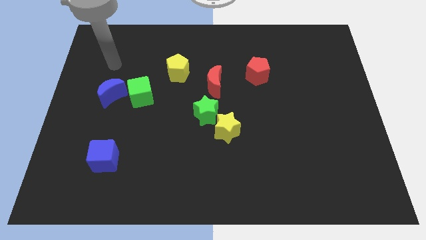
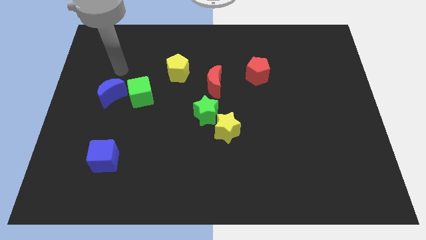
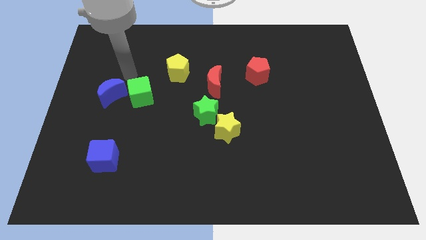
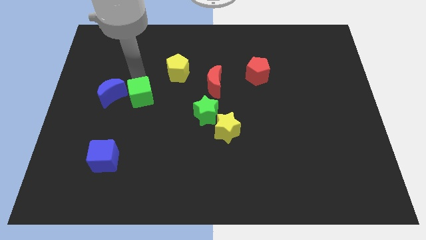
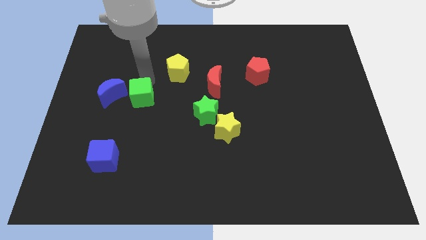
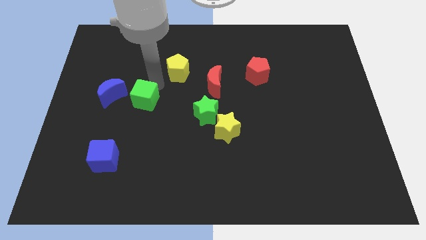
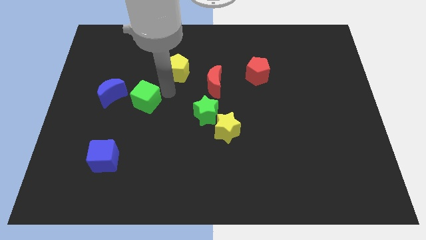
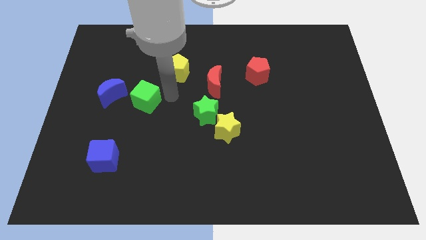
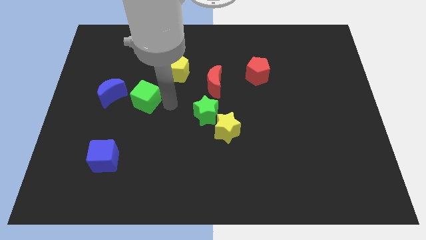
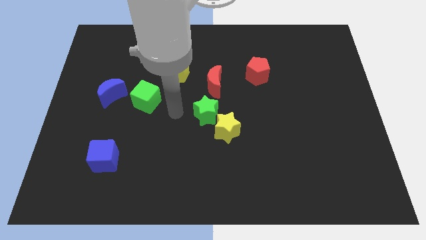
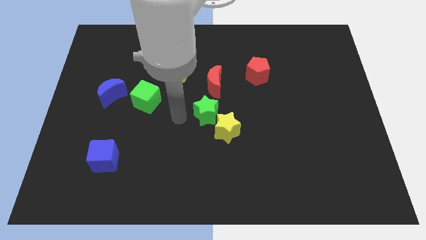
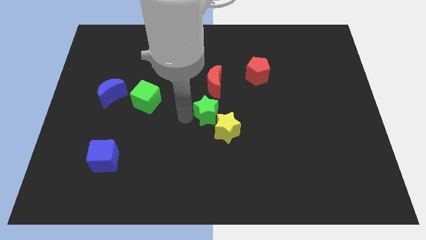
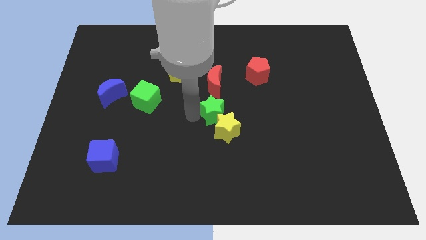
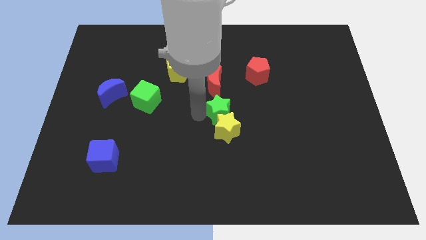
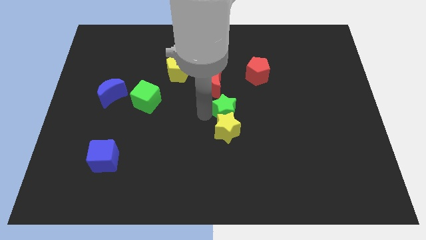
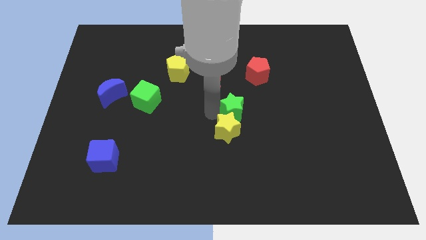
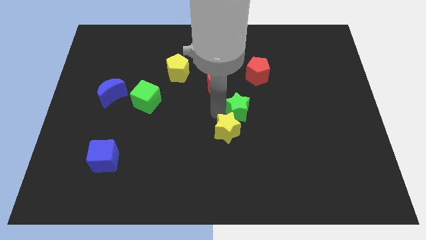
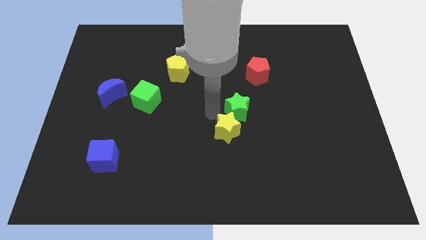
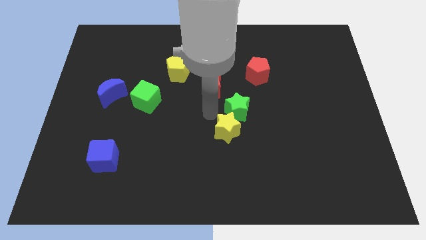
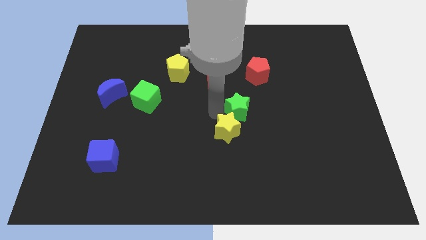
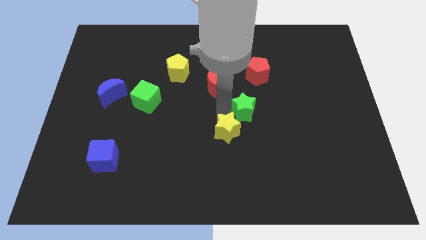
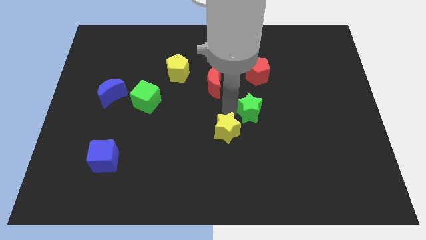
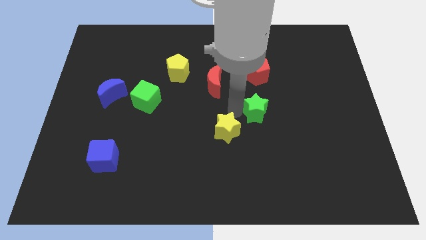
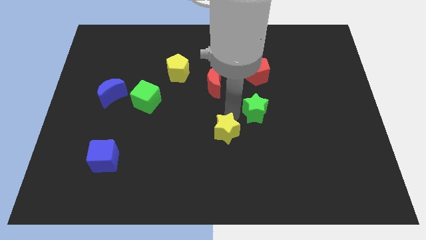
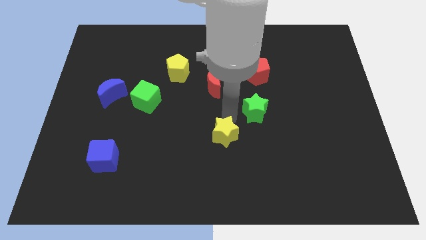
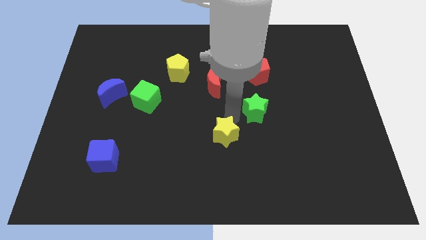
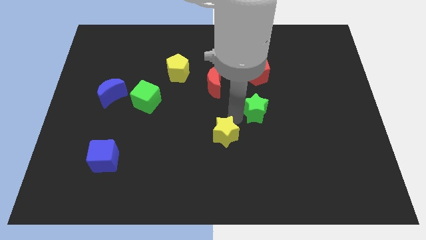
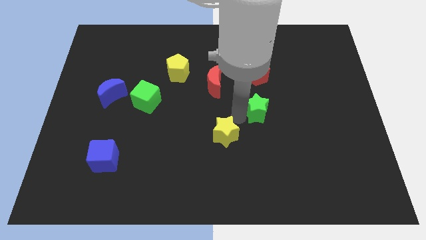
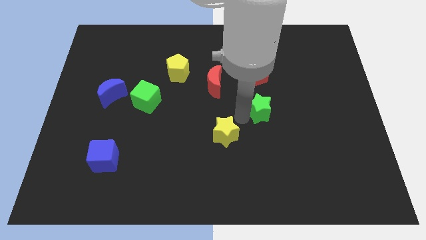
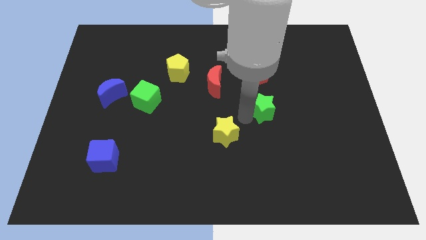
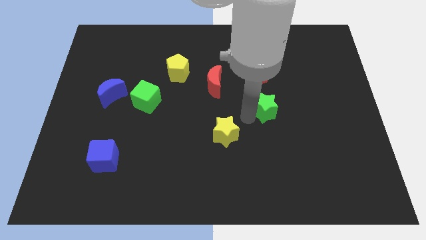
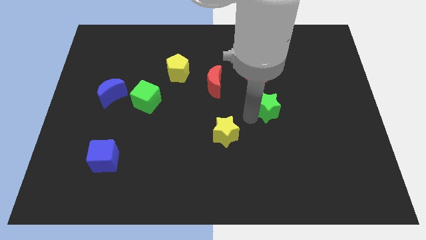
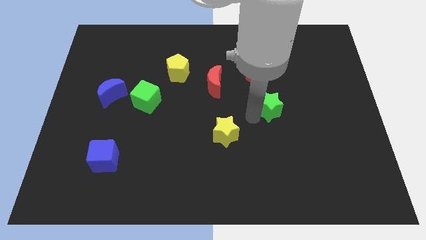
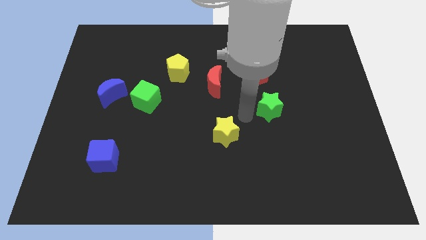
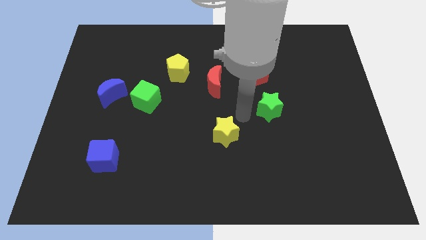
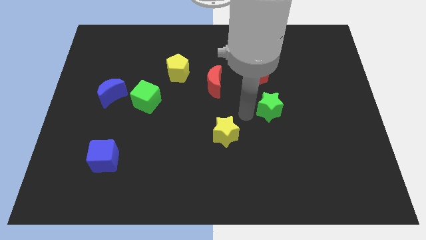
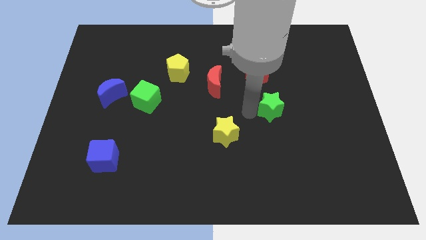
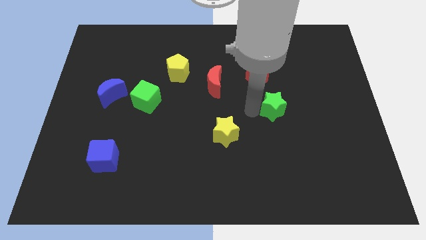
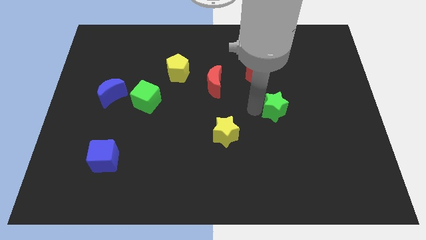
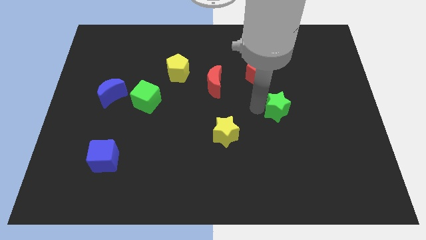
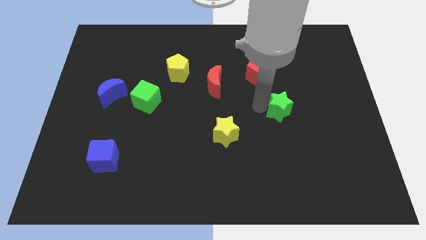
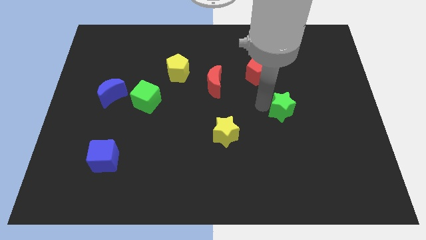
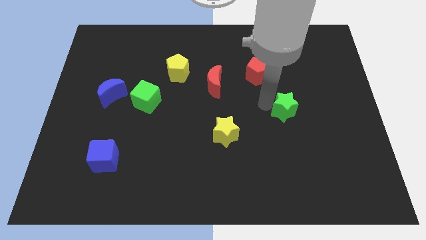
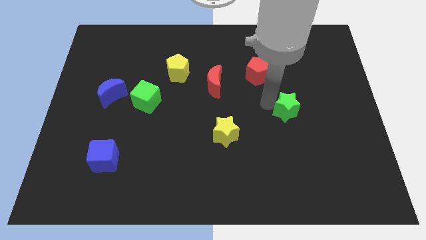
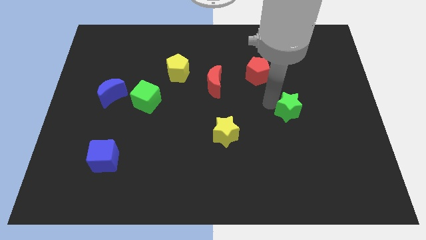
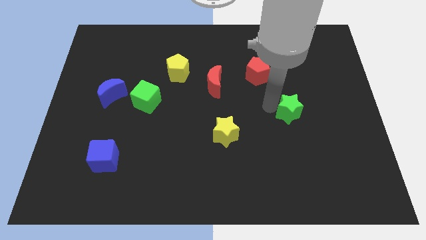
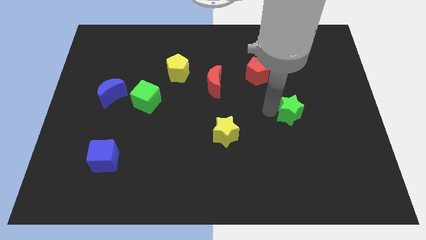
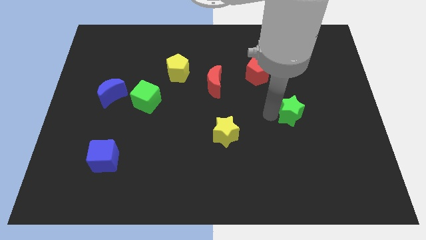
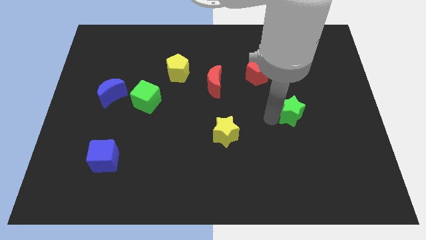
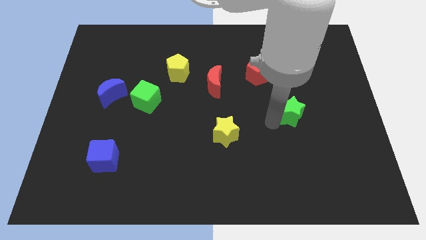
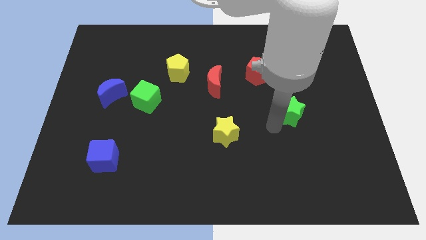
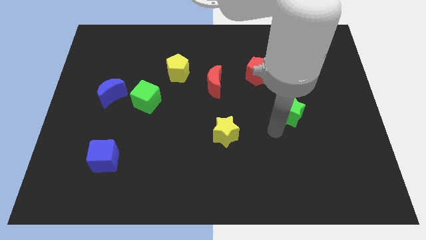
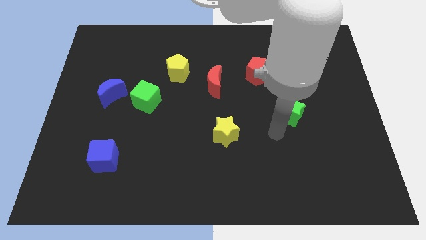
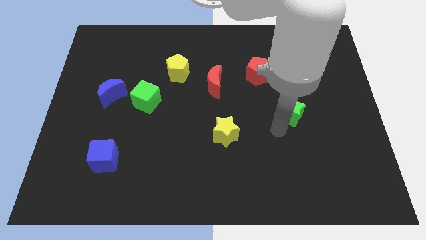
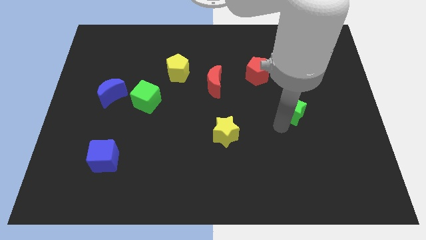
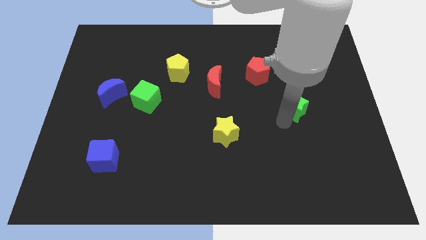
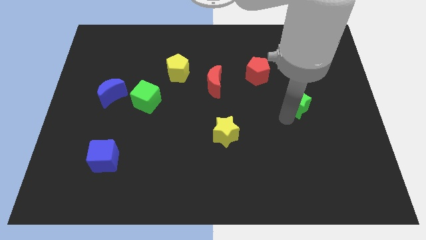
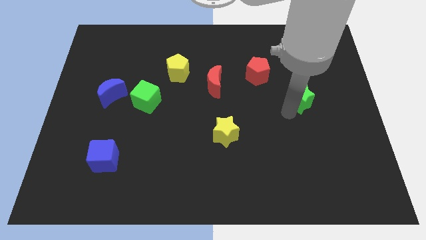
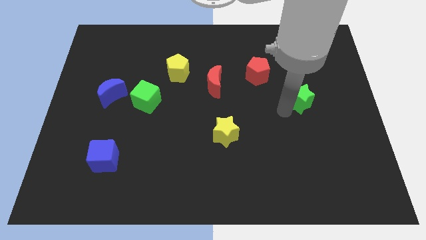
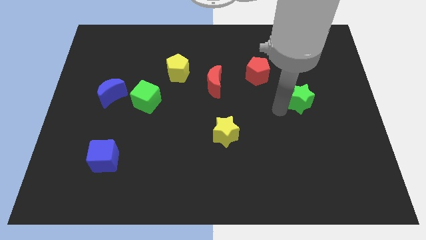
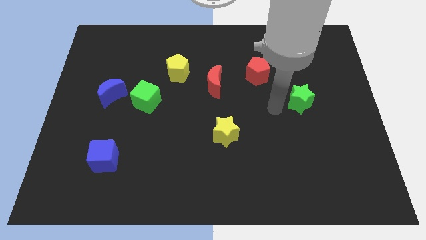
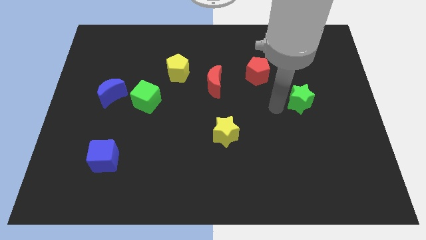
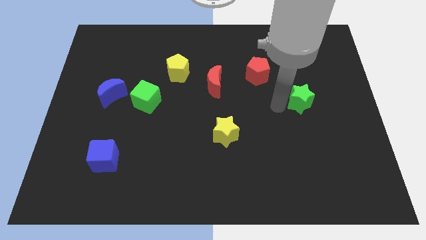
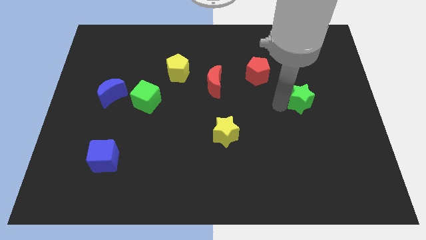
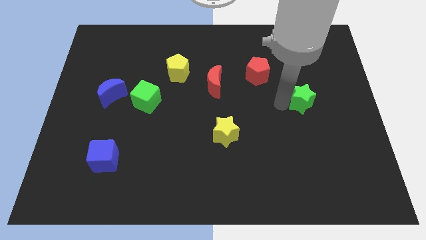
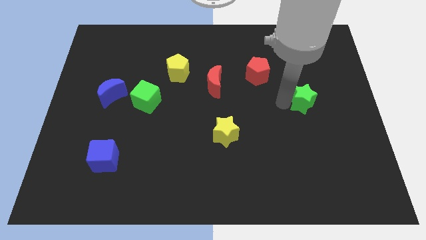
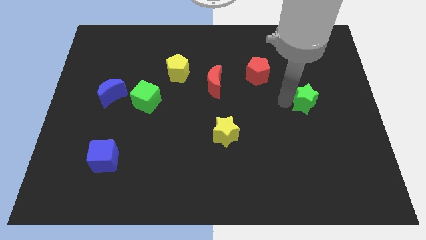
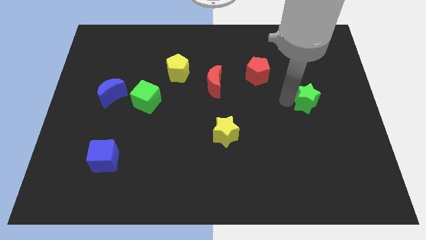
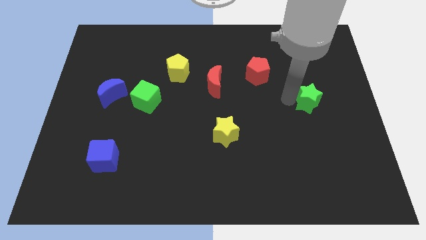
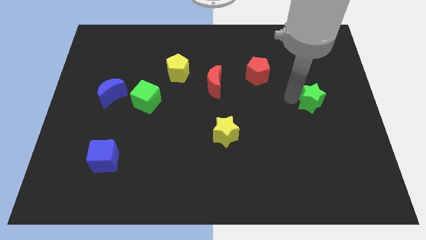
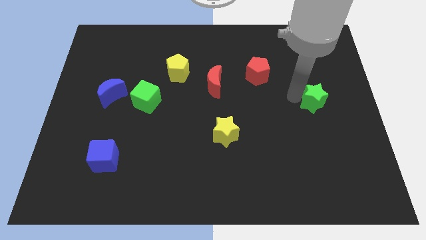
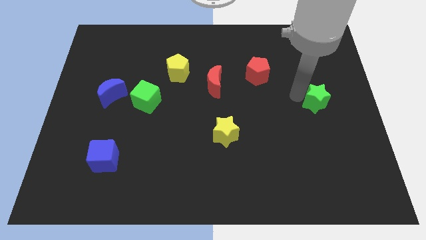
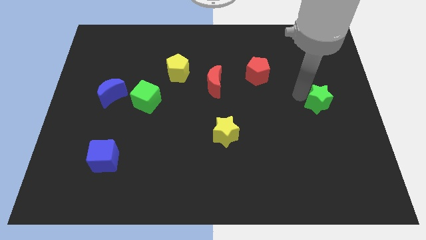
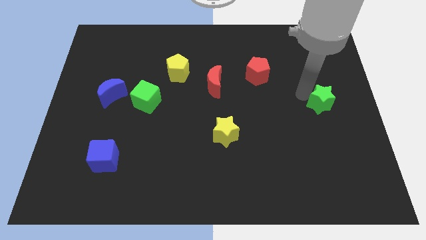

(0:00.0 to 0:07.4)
slide the green star to the right side
